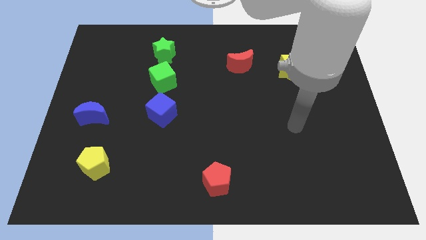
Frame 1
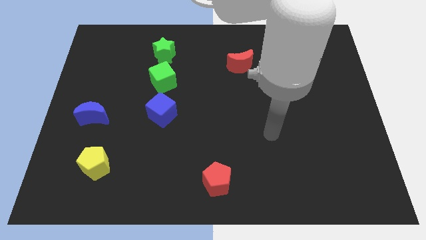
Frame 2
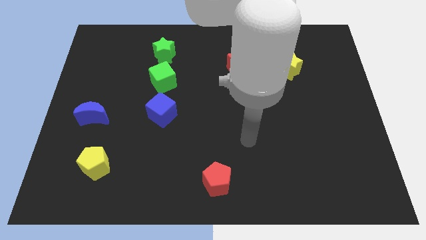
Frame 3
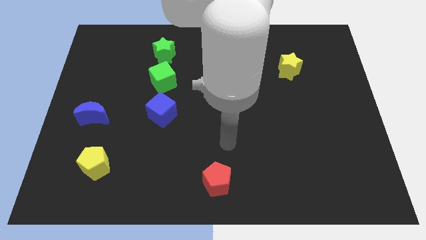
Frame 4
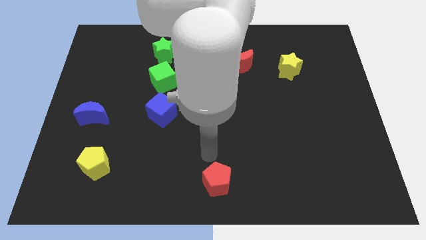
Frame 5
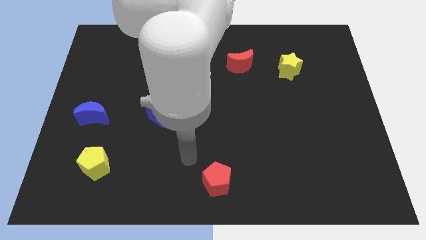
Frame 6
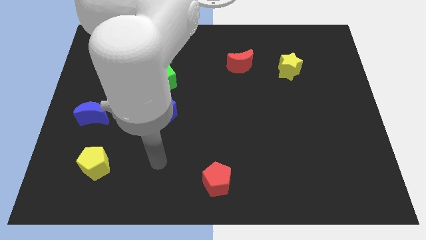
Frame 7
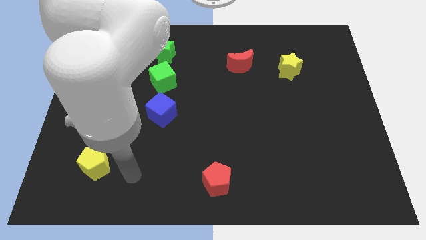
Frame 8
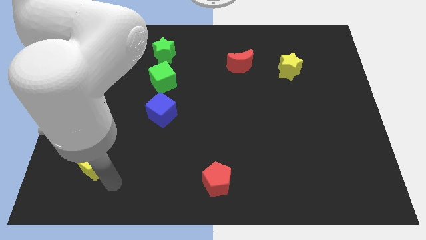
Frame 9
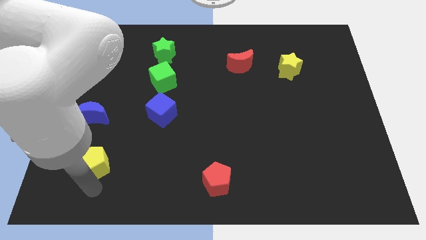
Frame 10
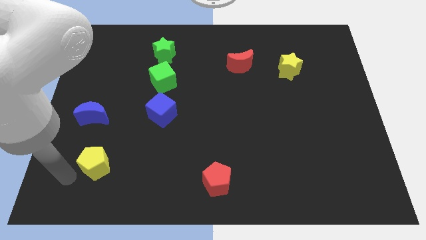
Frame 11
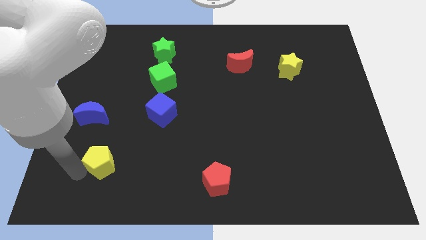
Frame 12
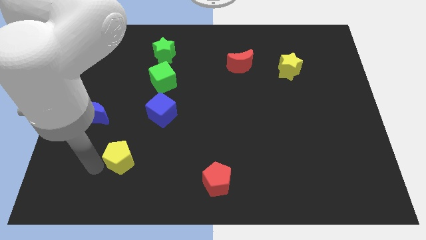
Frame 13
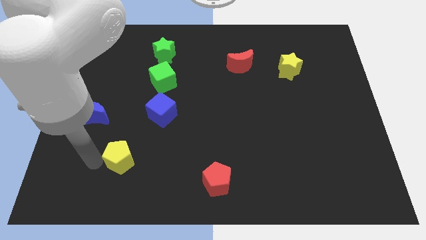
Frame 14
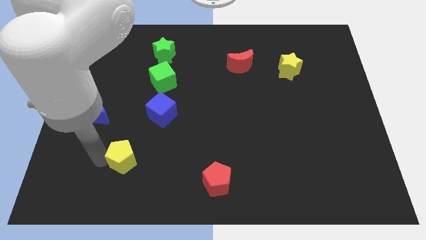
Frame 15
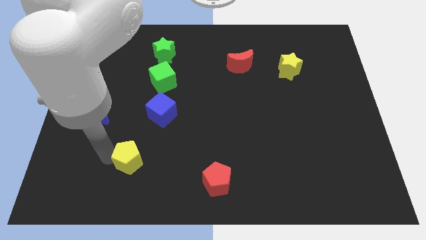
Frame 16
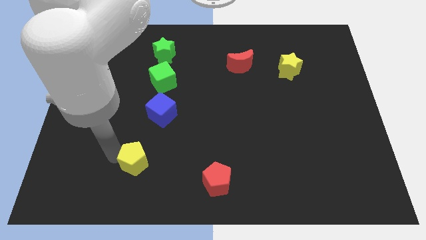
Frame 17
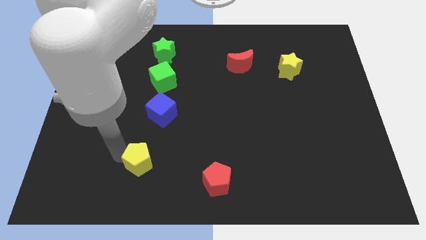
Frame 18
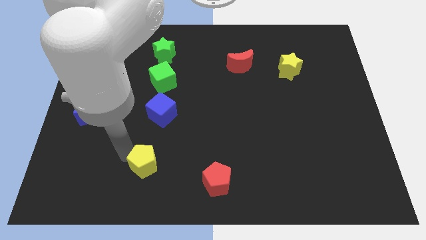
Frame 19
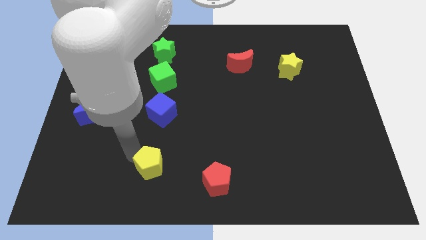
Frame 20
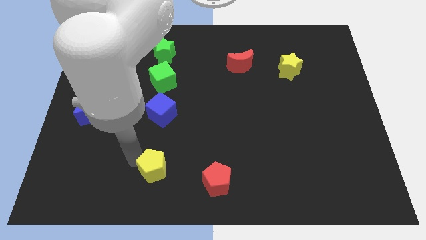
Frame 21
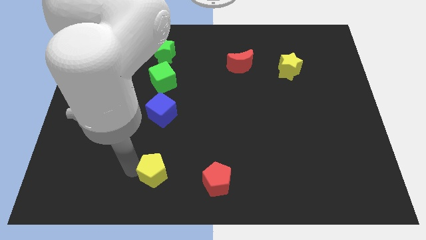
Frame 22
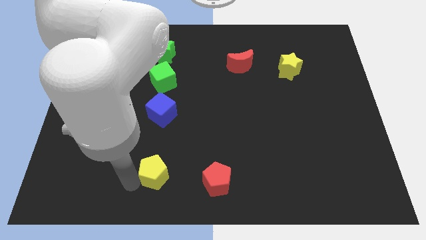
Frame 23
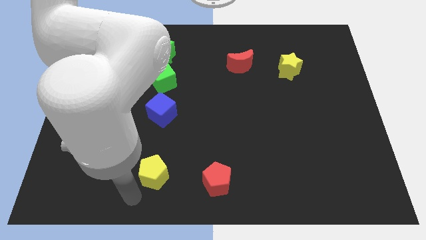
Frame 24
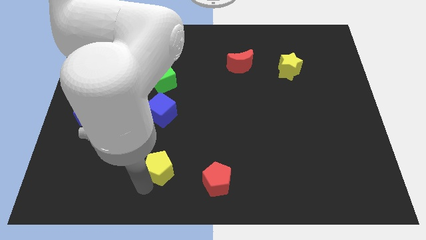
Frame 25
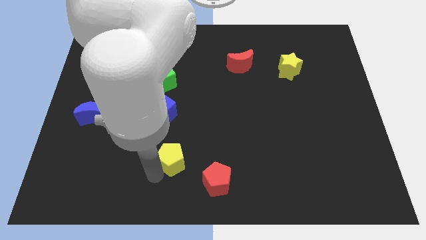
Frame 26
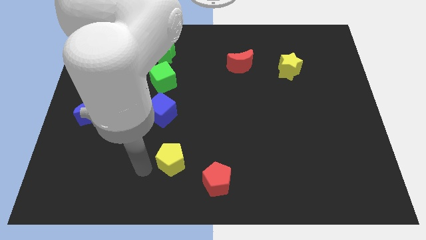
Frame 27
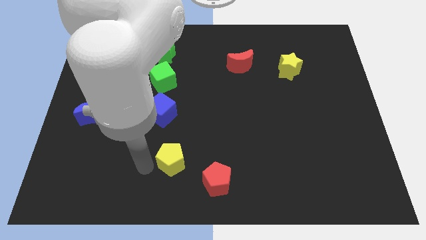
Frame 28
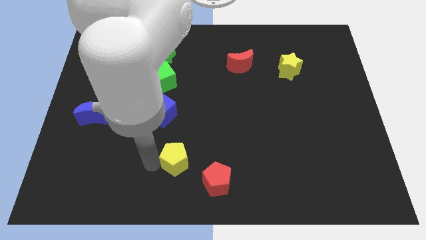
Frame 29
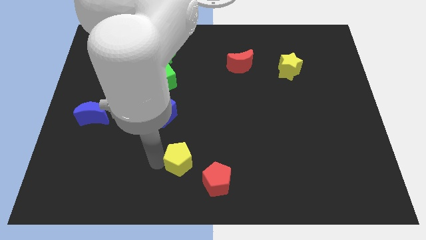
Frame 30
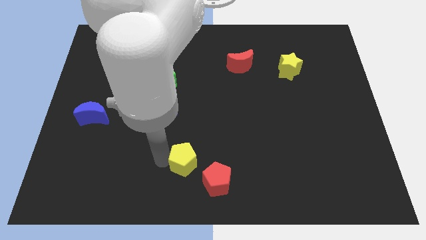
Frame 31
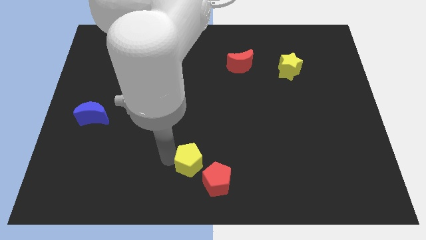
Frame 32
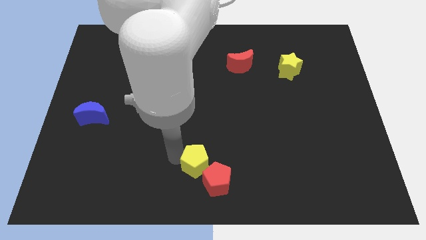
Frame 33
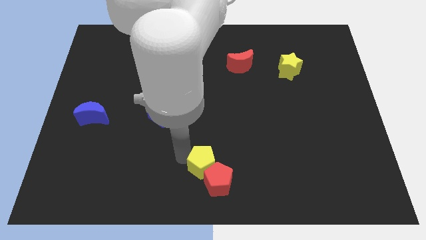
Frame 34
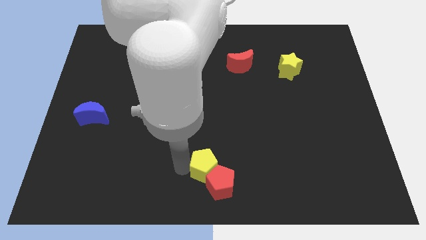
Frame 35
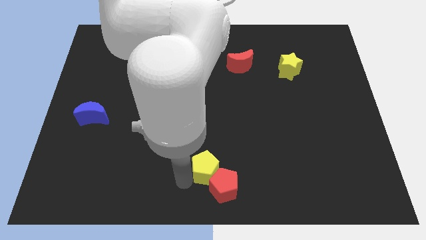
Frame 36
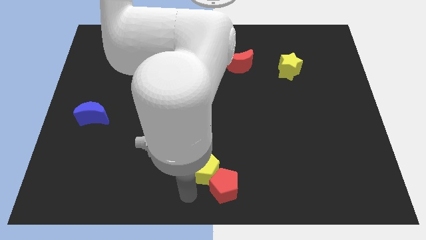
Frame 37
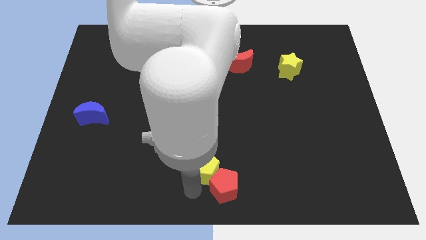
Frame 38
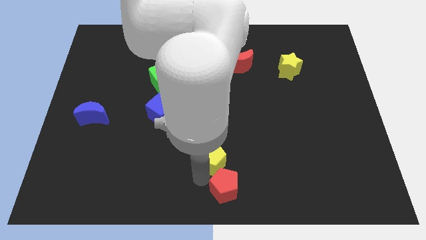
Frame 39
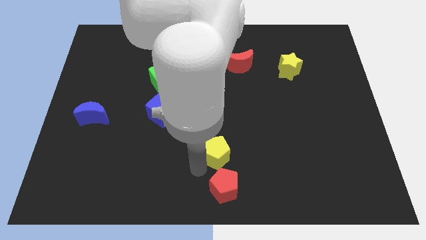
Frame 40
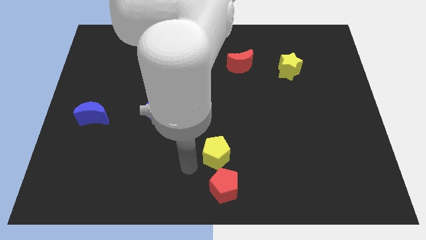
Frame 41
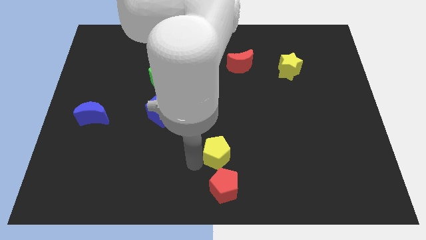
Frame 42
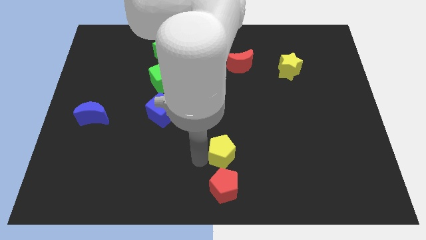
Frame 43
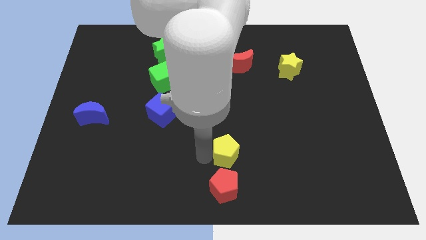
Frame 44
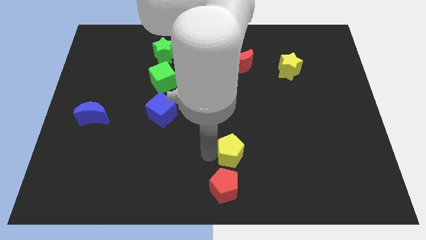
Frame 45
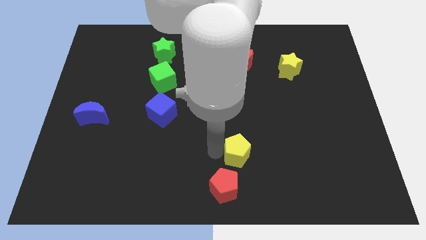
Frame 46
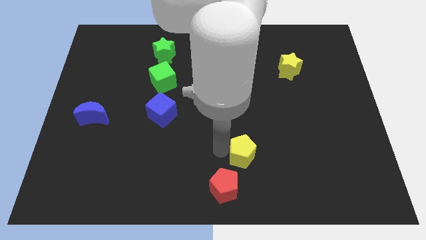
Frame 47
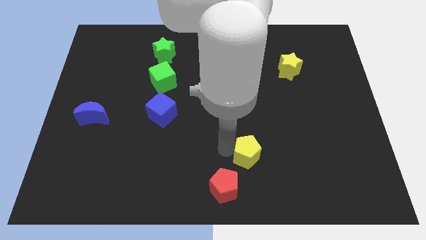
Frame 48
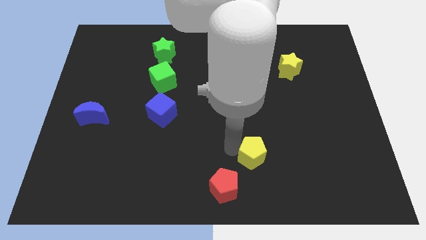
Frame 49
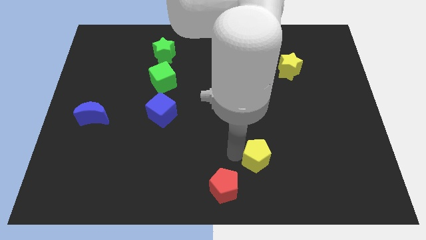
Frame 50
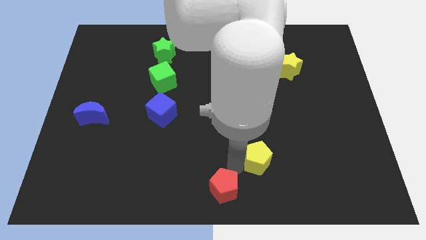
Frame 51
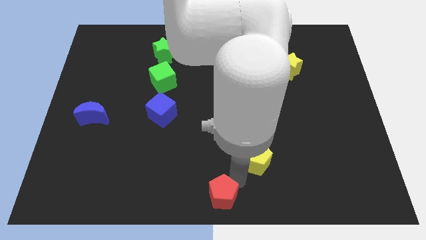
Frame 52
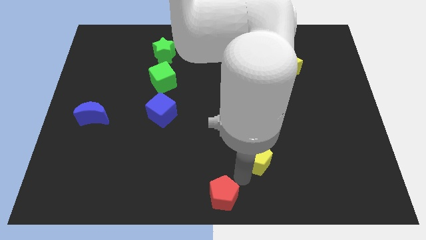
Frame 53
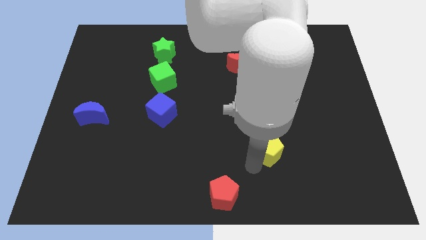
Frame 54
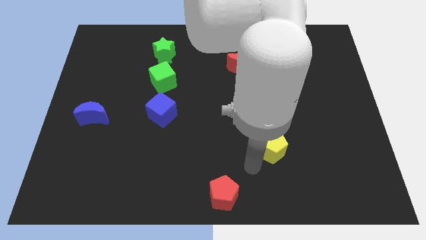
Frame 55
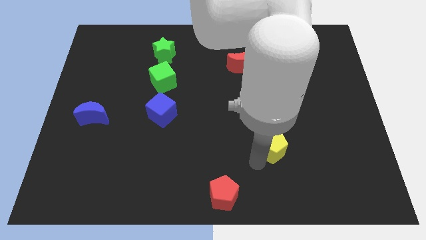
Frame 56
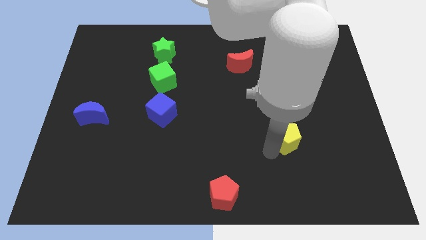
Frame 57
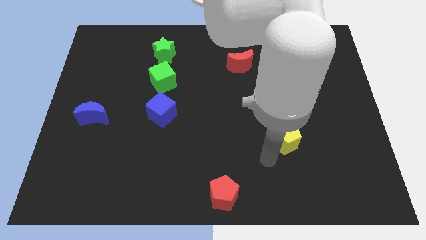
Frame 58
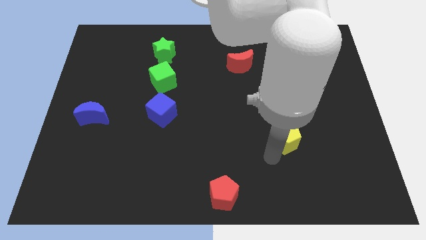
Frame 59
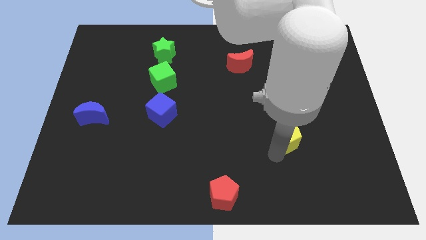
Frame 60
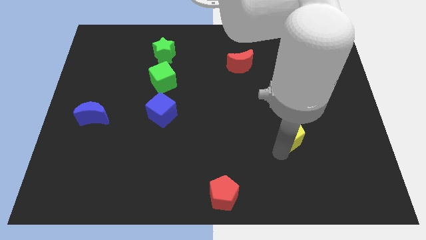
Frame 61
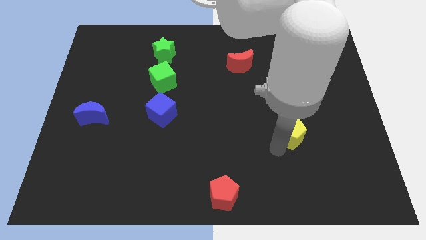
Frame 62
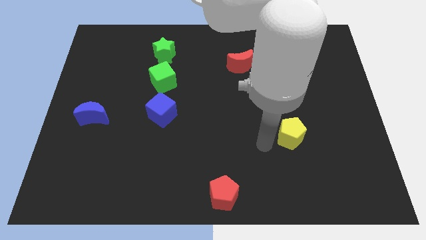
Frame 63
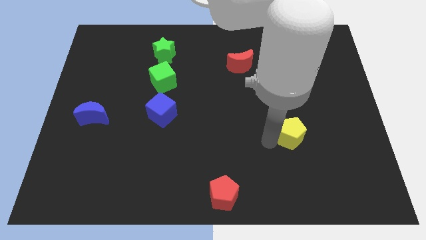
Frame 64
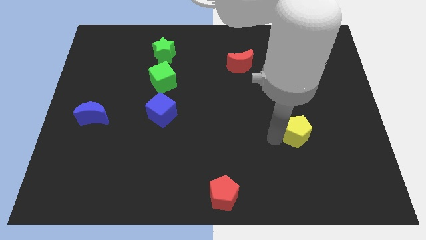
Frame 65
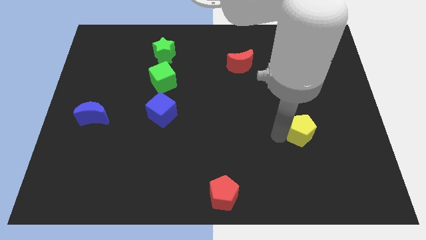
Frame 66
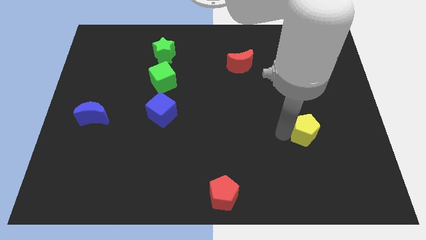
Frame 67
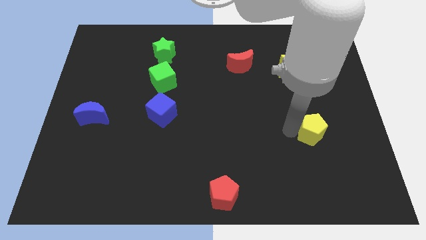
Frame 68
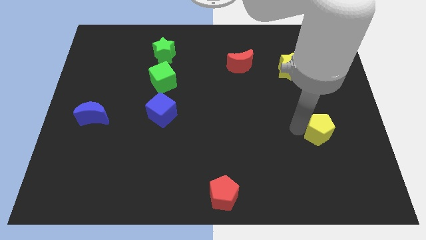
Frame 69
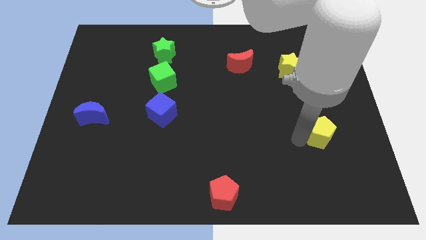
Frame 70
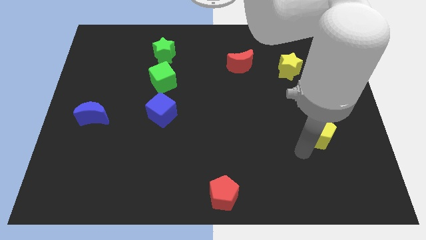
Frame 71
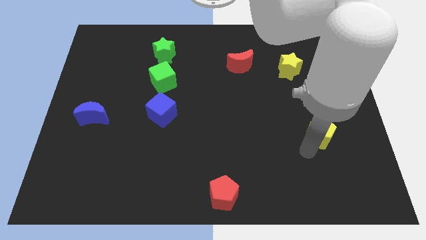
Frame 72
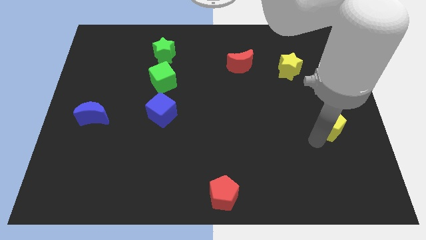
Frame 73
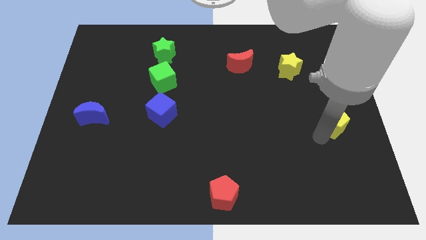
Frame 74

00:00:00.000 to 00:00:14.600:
slide the yellow pentagon to the center right
